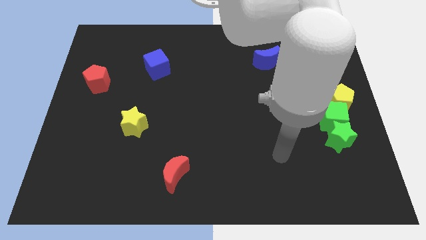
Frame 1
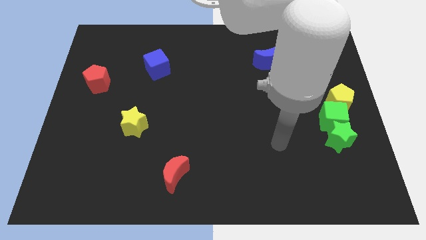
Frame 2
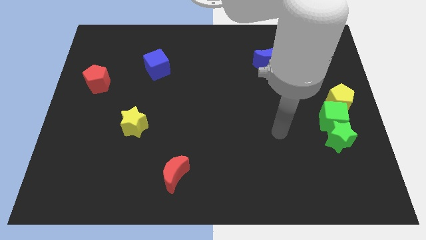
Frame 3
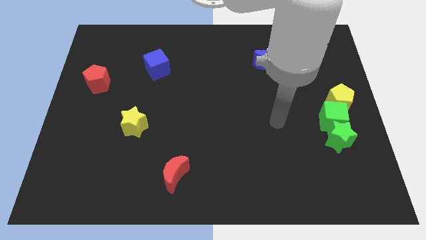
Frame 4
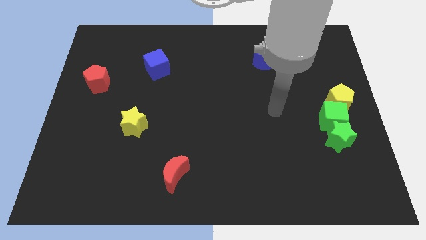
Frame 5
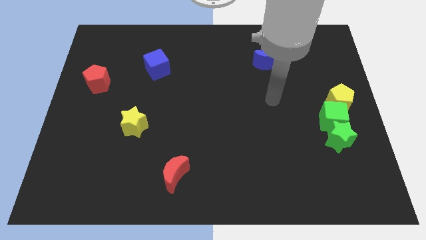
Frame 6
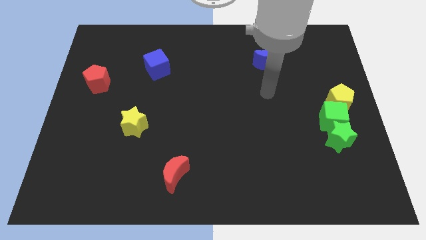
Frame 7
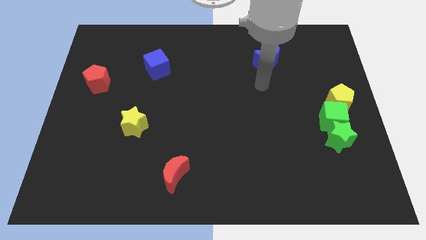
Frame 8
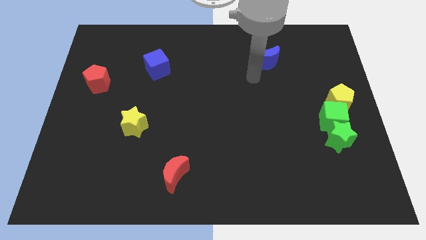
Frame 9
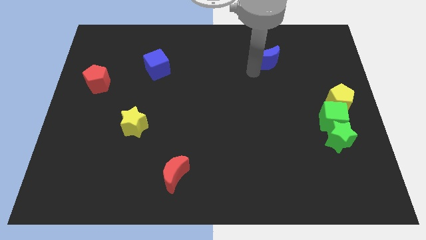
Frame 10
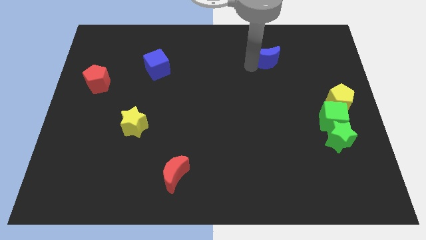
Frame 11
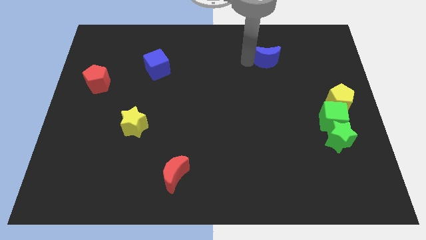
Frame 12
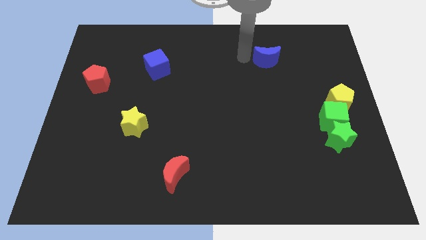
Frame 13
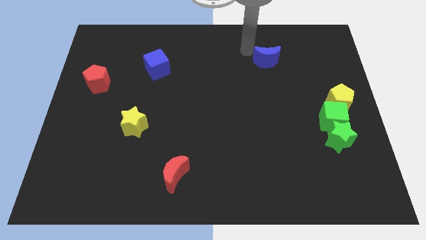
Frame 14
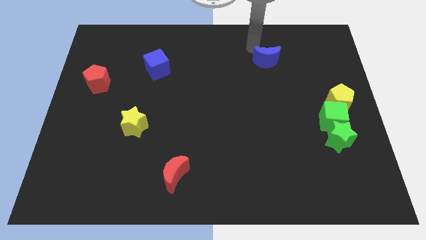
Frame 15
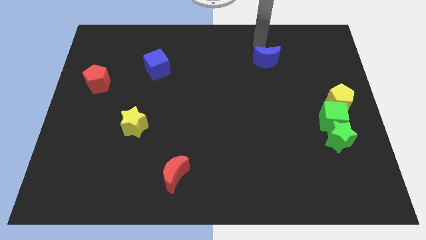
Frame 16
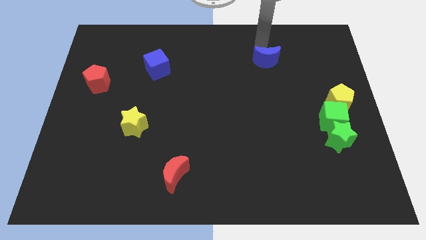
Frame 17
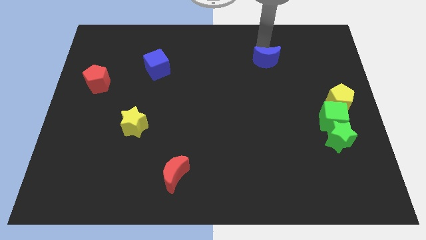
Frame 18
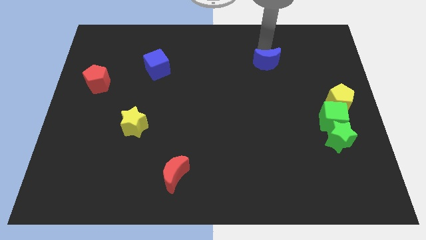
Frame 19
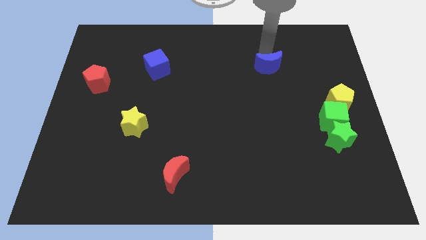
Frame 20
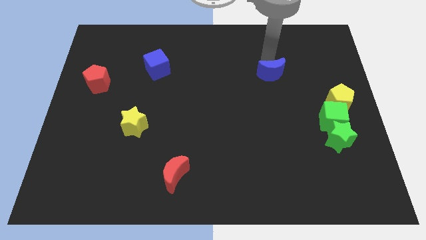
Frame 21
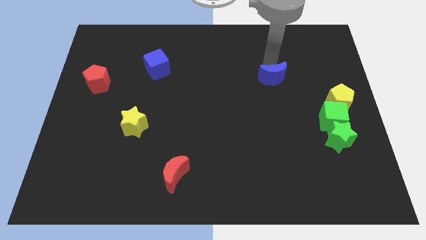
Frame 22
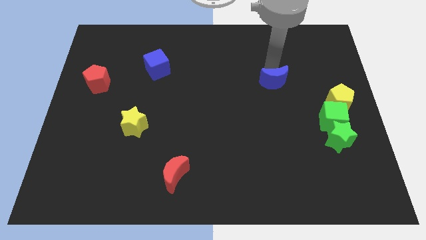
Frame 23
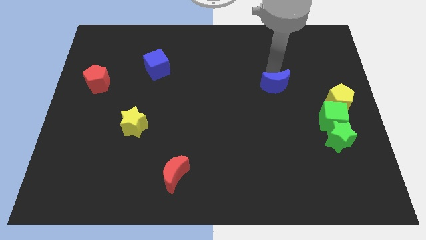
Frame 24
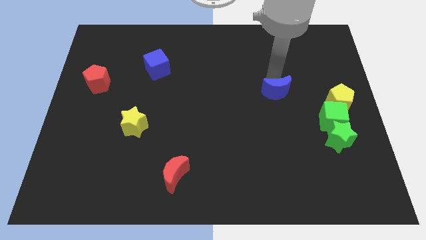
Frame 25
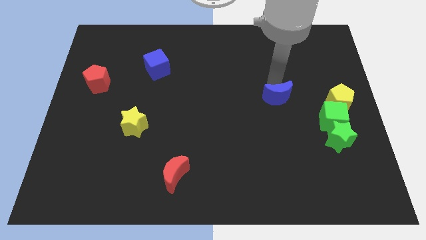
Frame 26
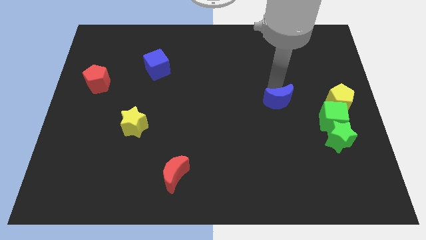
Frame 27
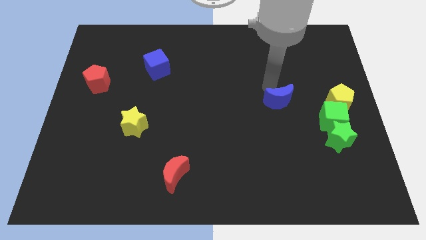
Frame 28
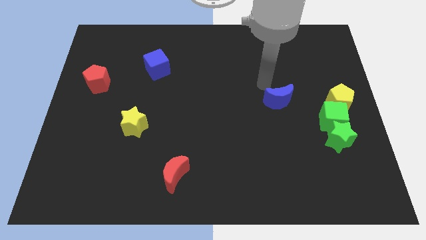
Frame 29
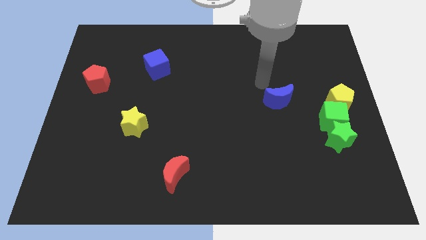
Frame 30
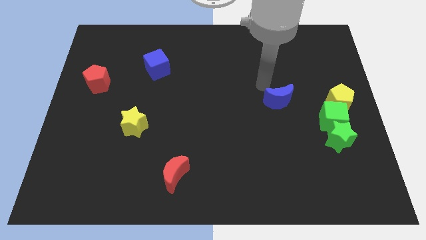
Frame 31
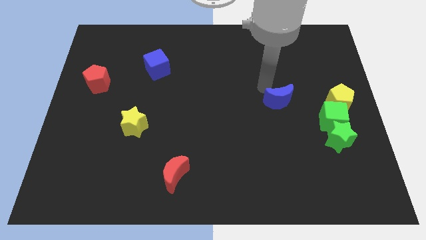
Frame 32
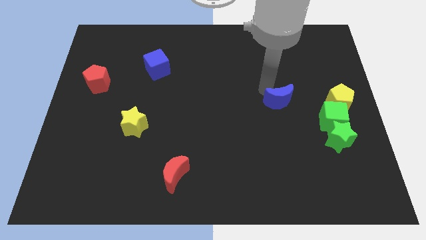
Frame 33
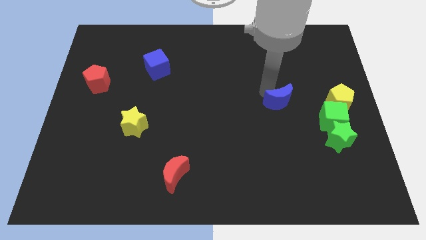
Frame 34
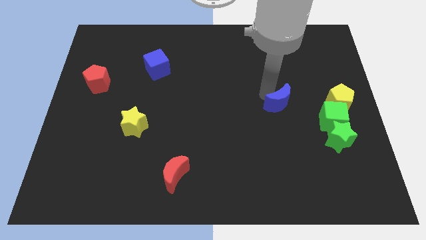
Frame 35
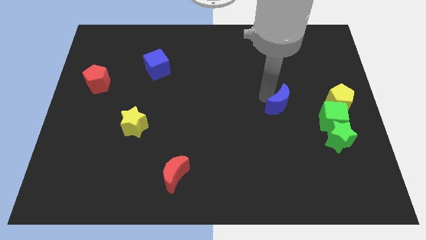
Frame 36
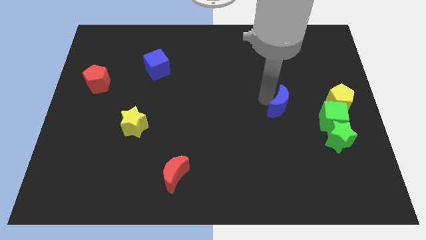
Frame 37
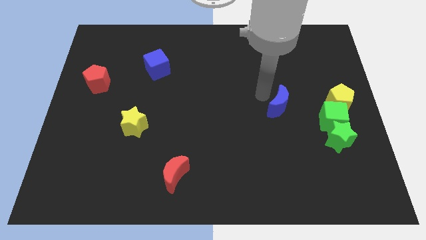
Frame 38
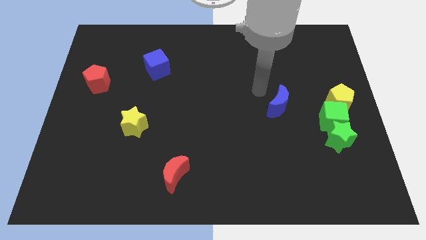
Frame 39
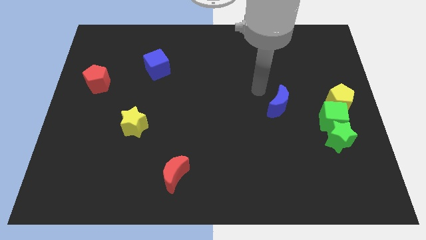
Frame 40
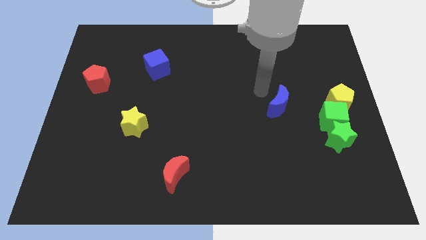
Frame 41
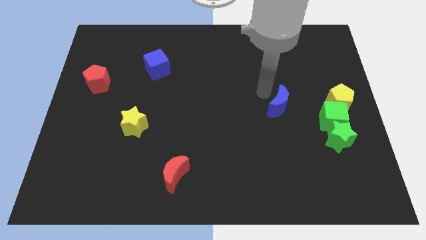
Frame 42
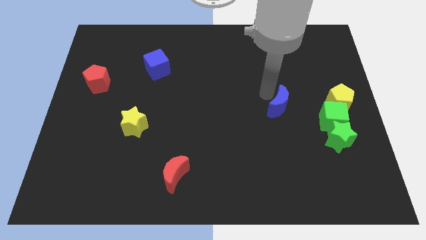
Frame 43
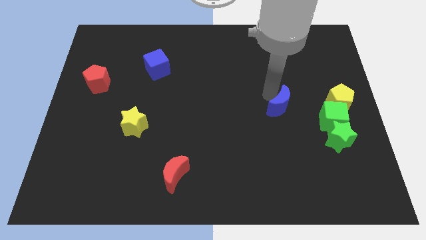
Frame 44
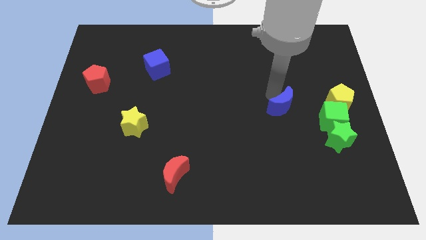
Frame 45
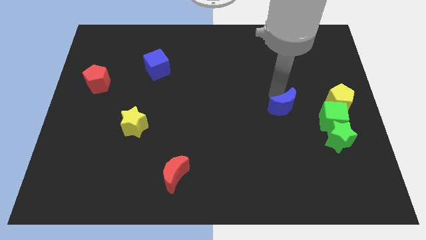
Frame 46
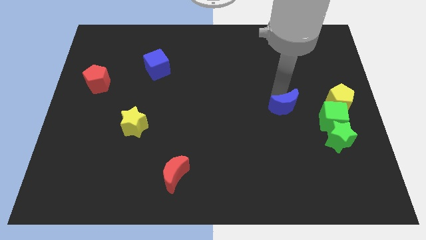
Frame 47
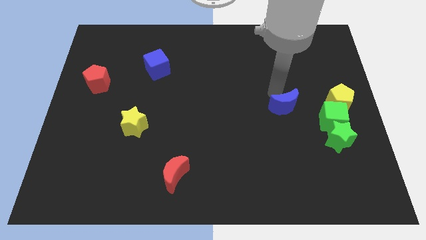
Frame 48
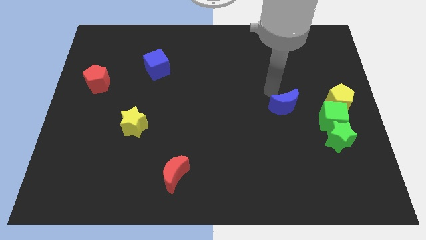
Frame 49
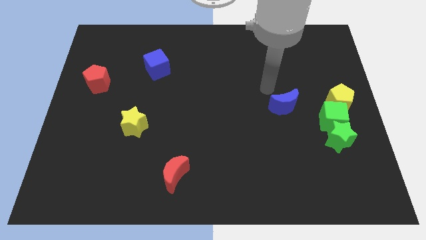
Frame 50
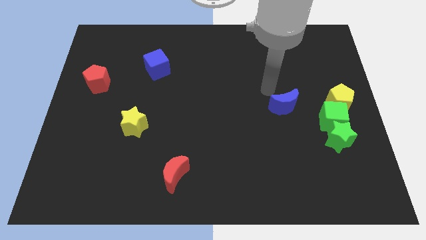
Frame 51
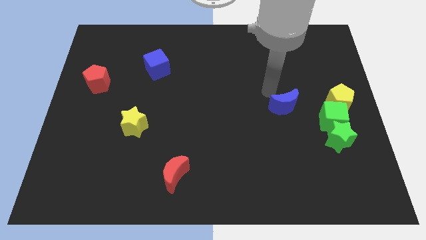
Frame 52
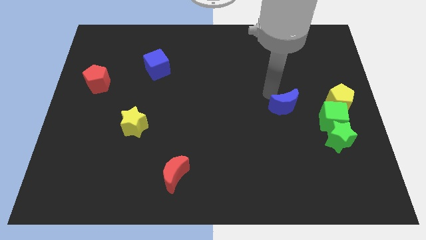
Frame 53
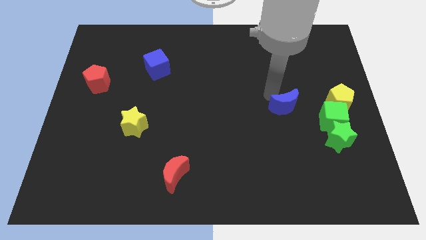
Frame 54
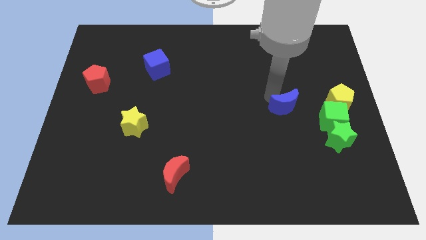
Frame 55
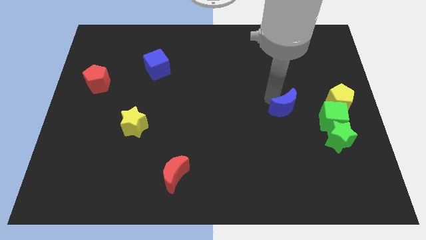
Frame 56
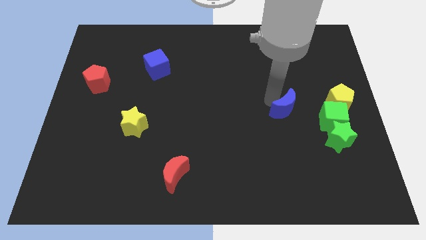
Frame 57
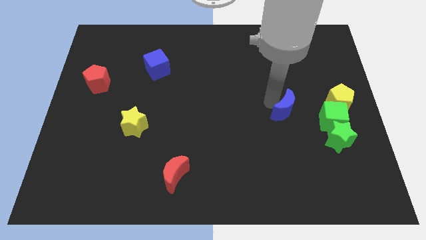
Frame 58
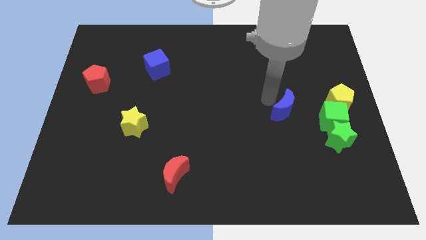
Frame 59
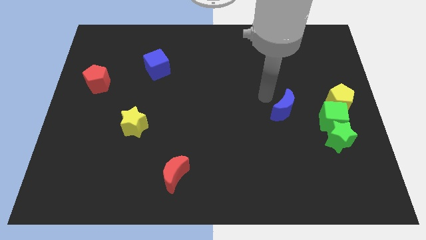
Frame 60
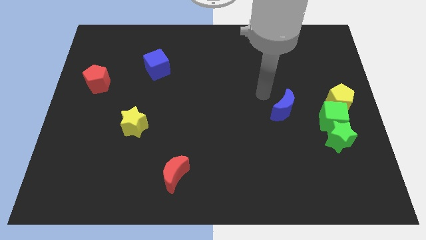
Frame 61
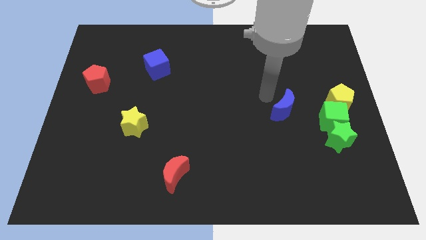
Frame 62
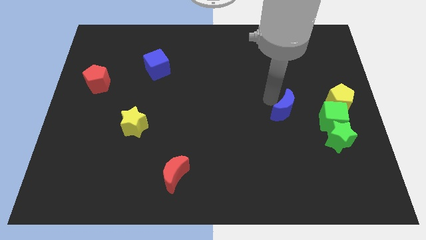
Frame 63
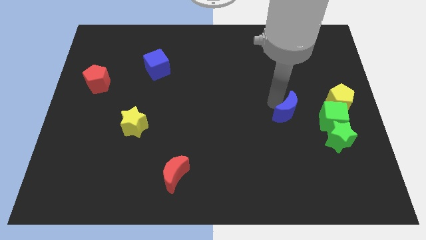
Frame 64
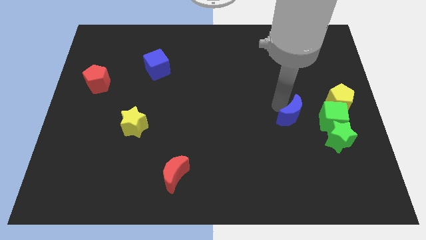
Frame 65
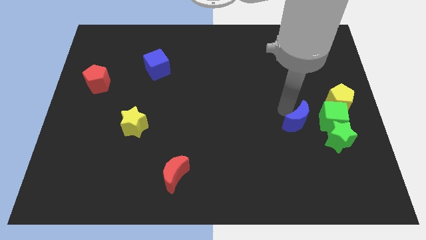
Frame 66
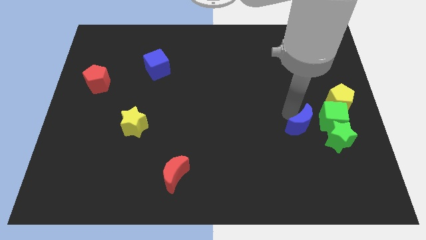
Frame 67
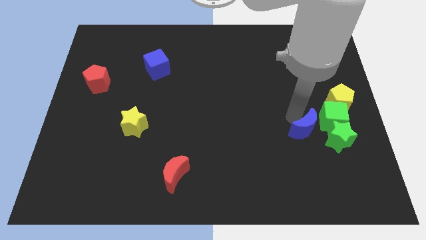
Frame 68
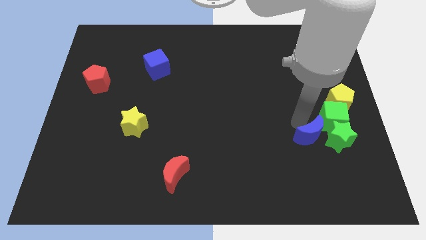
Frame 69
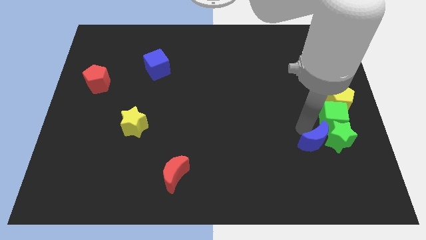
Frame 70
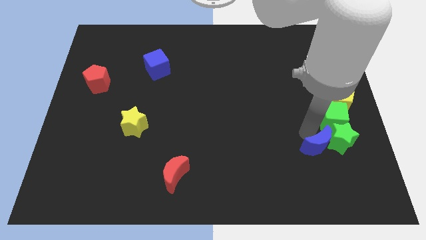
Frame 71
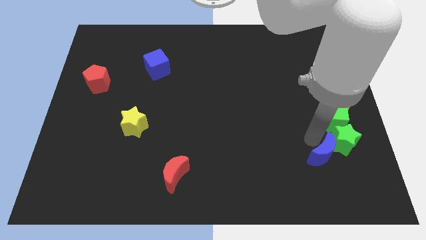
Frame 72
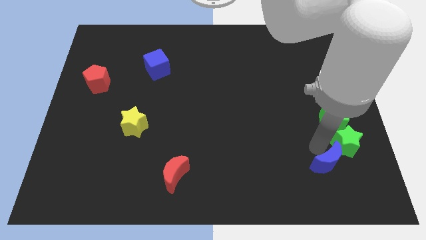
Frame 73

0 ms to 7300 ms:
push the blue moon below the green star

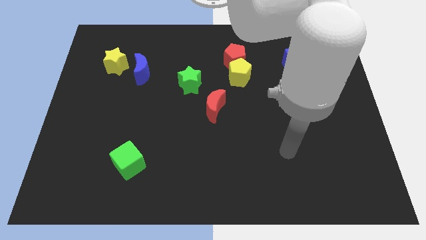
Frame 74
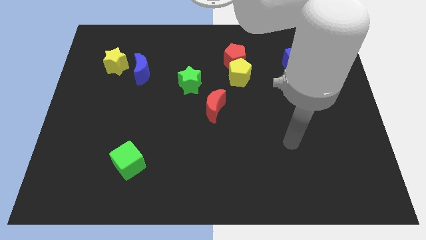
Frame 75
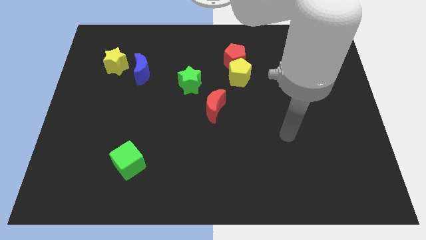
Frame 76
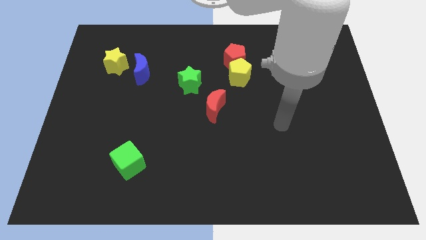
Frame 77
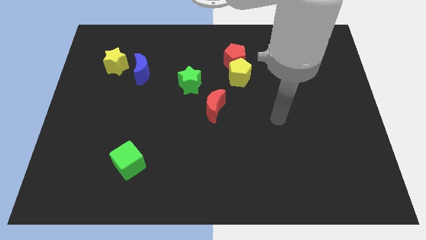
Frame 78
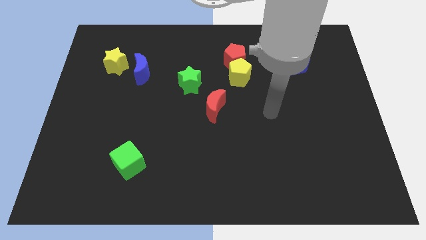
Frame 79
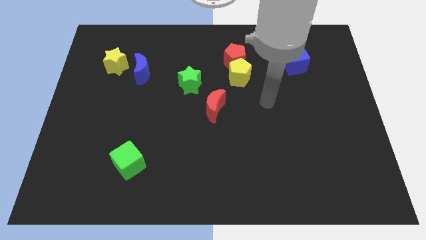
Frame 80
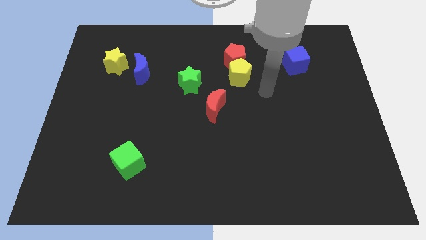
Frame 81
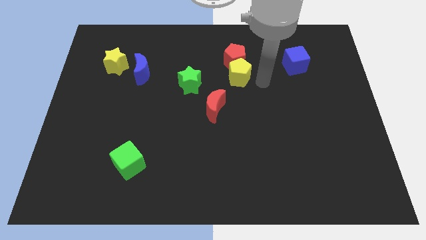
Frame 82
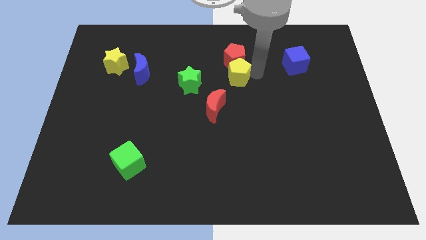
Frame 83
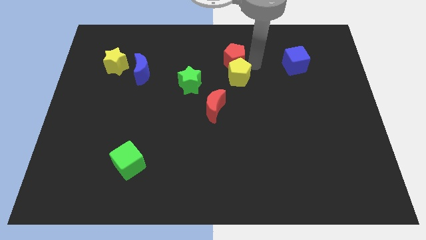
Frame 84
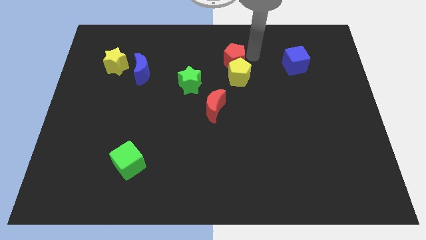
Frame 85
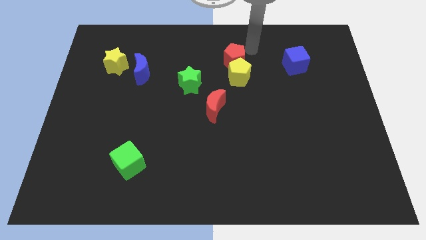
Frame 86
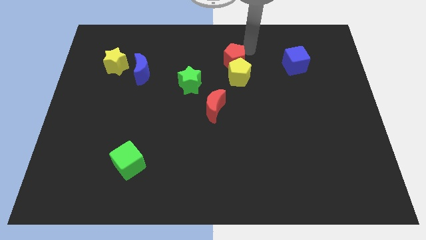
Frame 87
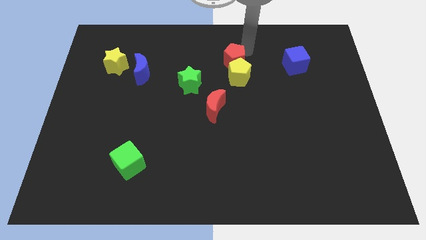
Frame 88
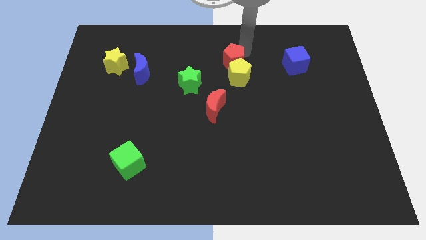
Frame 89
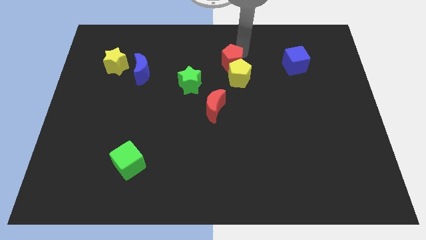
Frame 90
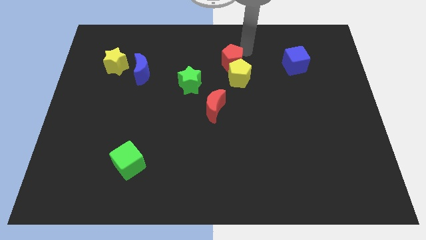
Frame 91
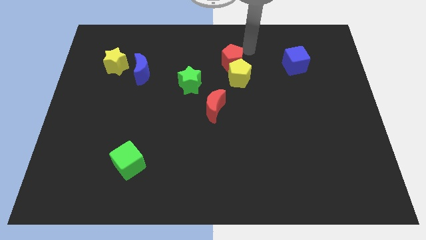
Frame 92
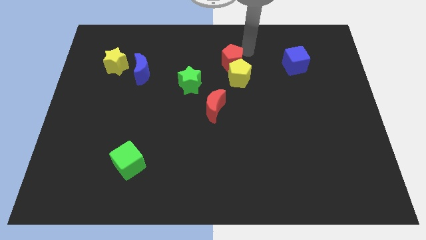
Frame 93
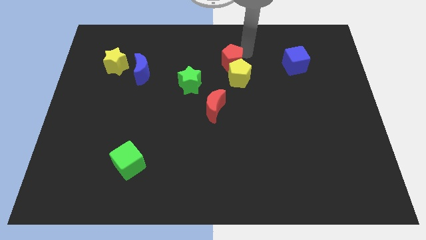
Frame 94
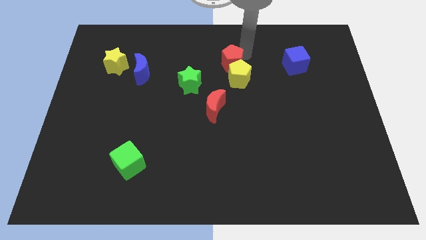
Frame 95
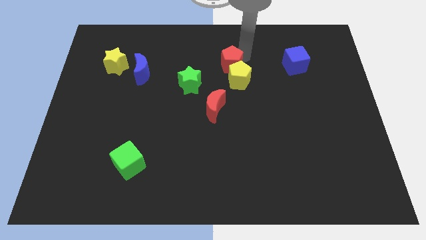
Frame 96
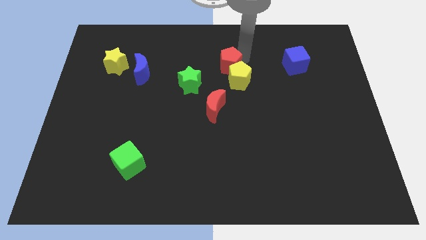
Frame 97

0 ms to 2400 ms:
put the red pentagon above the red moon
